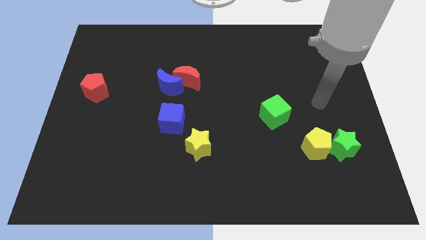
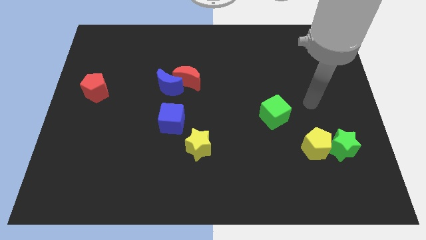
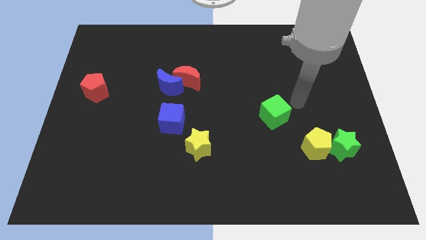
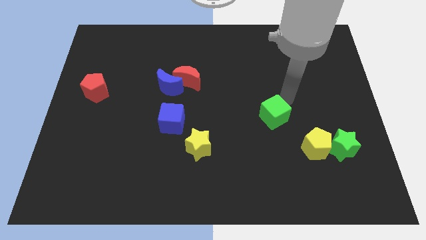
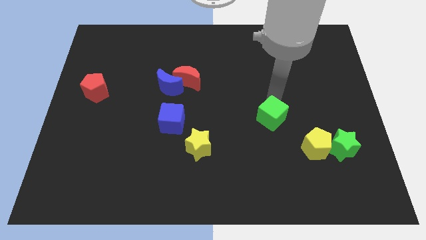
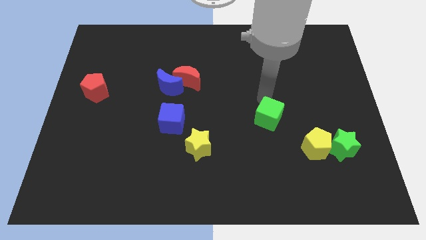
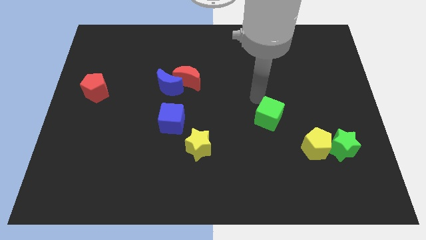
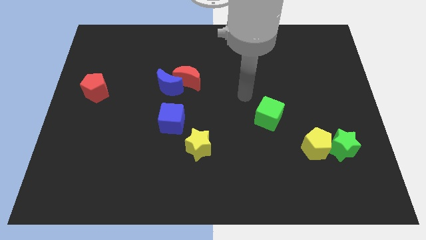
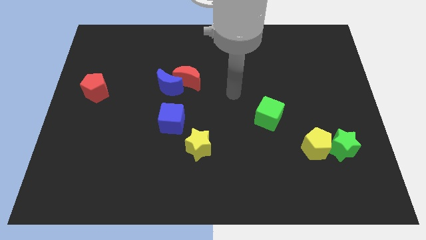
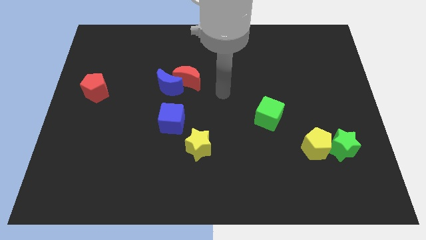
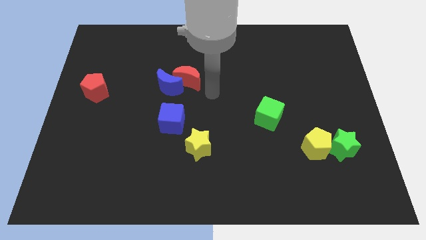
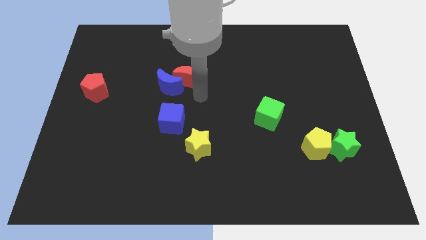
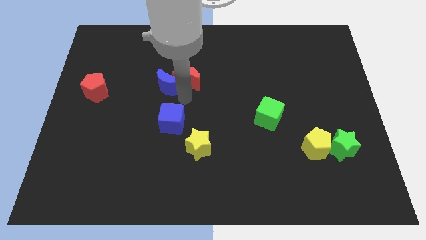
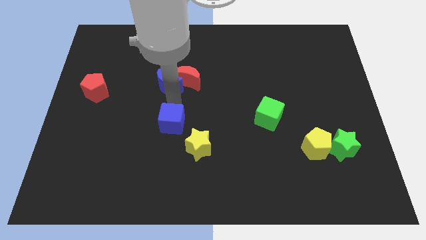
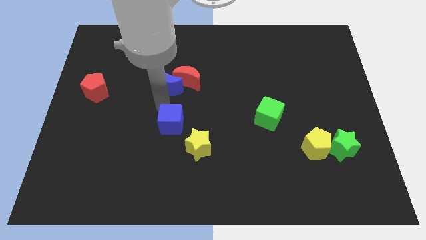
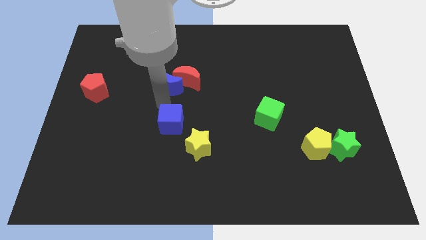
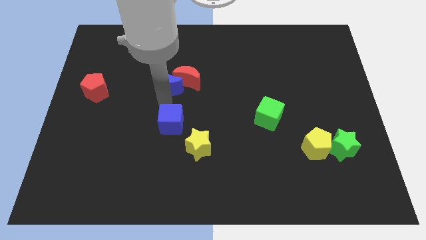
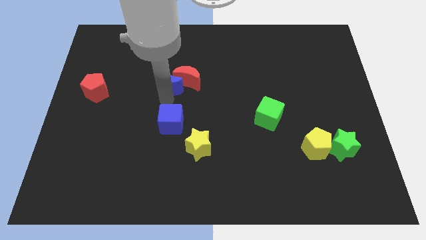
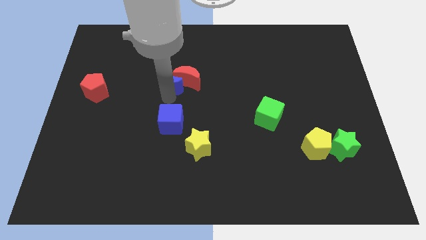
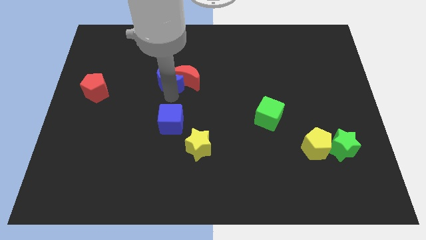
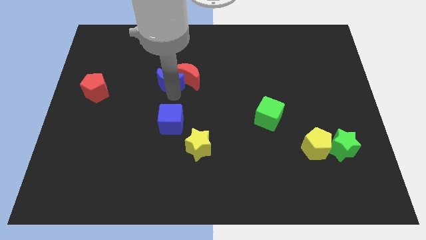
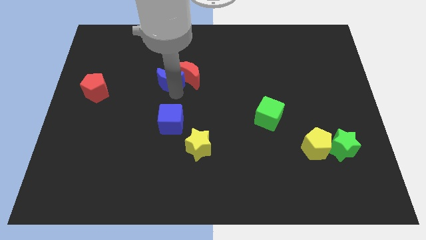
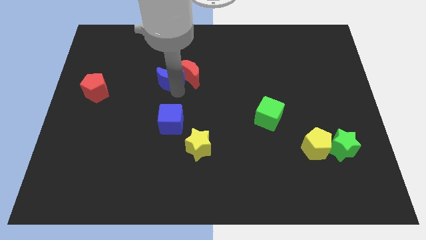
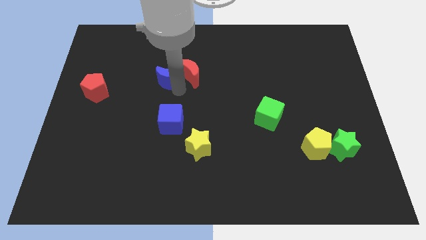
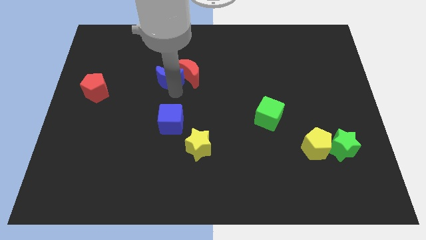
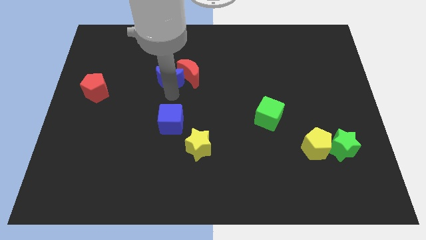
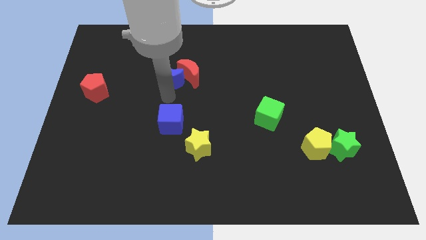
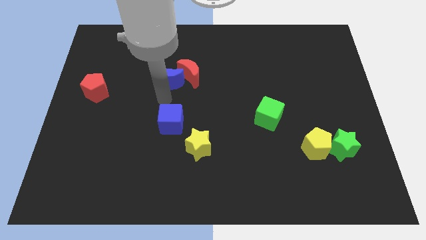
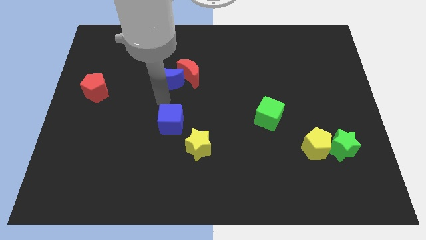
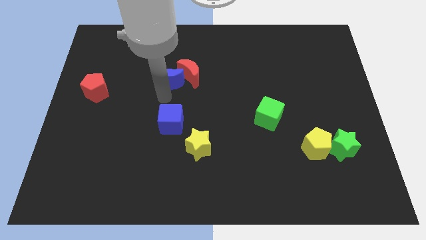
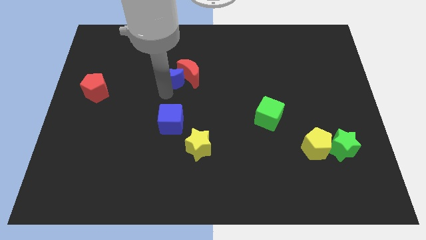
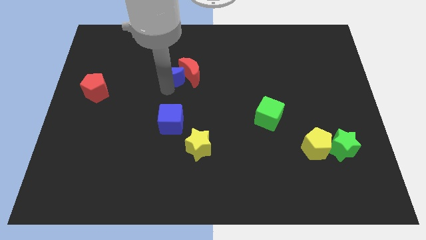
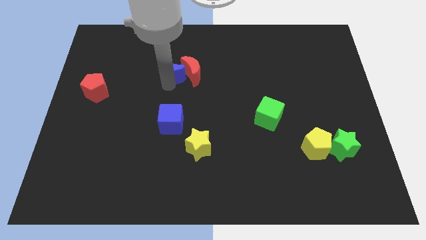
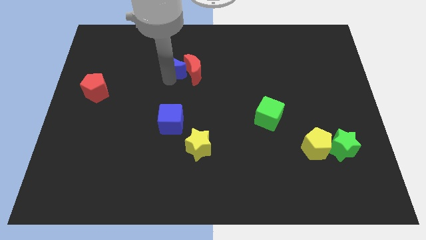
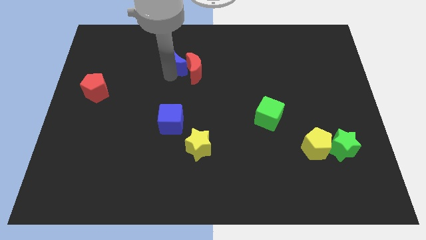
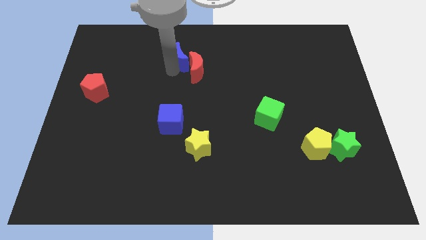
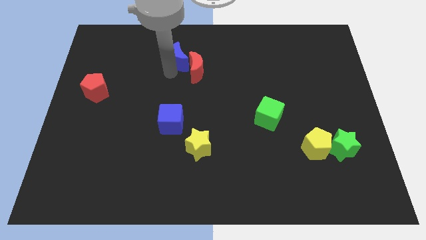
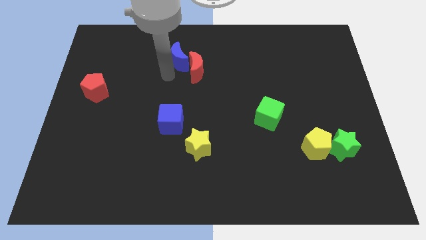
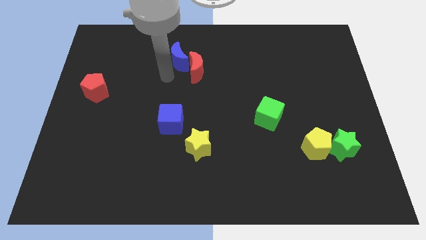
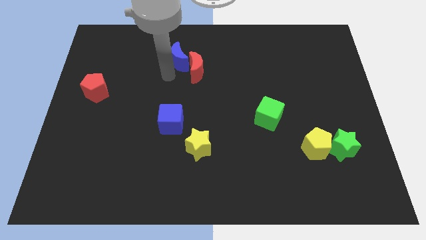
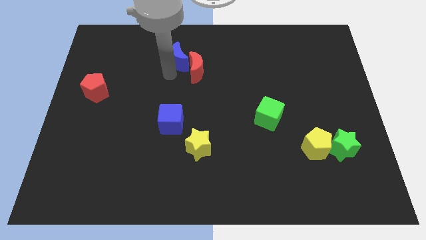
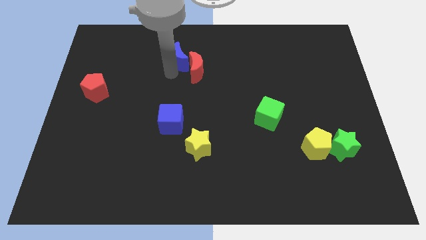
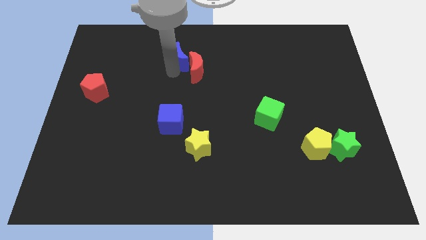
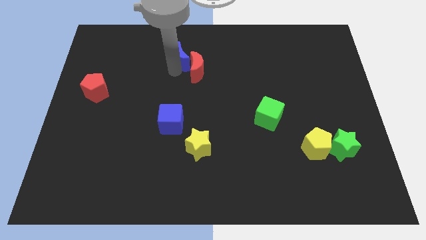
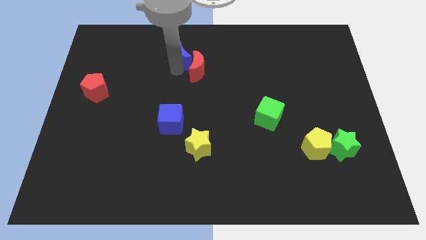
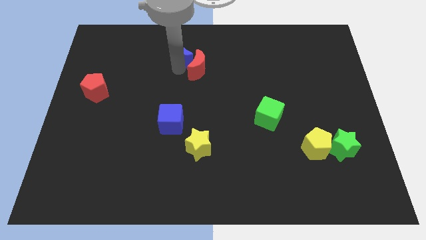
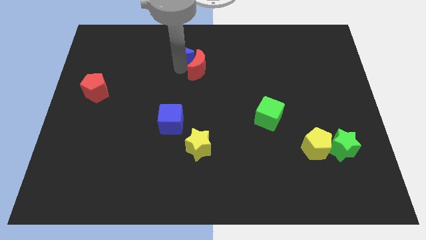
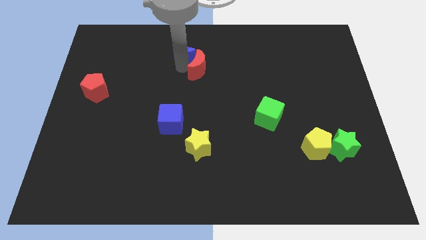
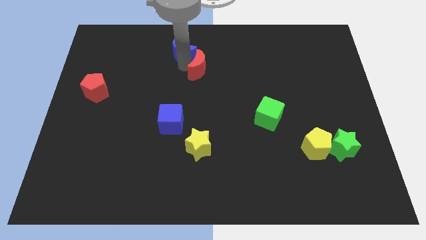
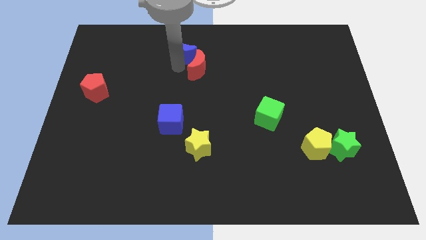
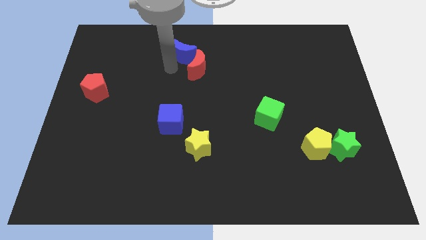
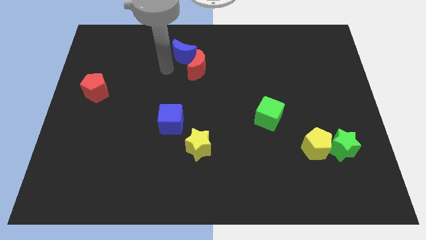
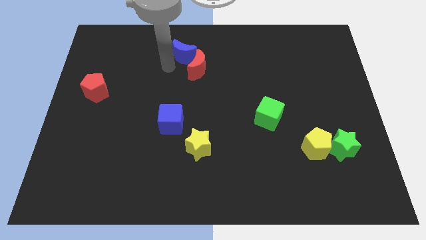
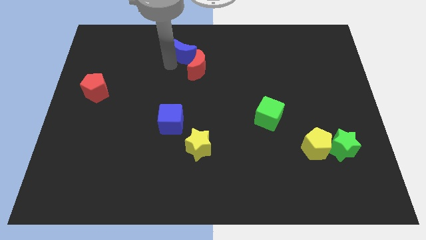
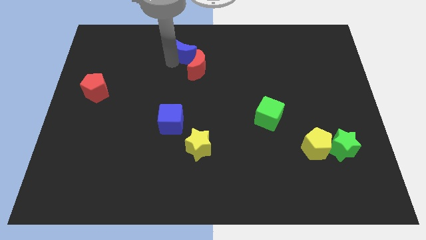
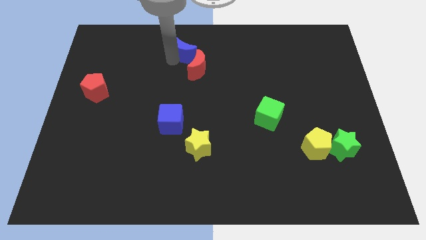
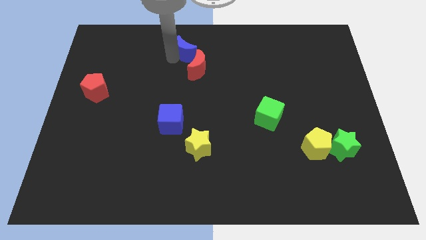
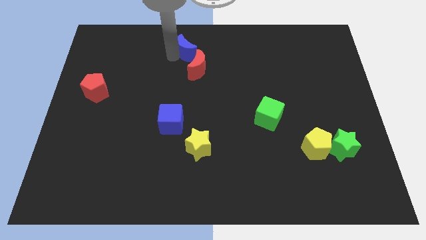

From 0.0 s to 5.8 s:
put the blue moon to the towards your base
